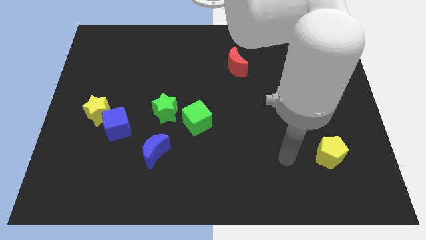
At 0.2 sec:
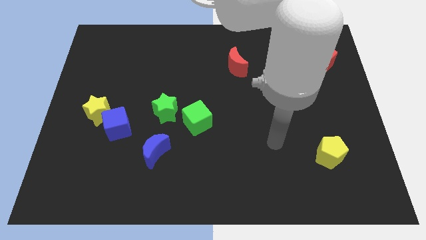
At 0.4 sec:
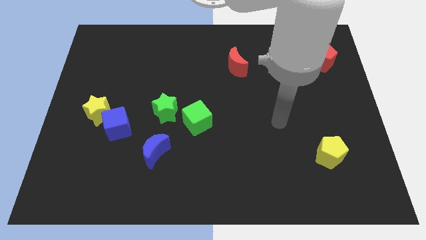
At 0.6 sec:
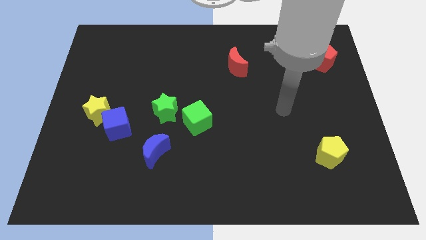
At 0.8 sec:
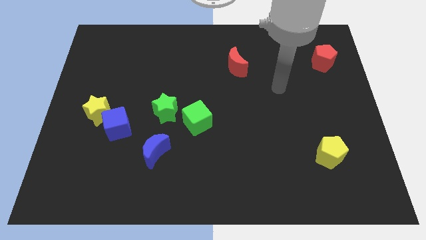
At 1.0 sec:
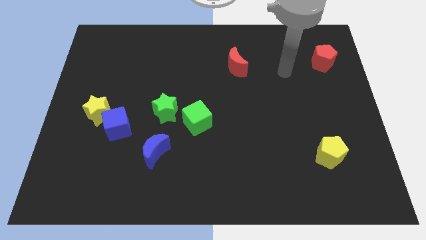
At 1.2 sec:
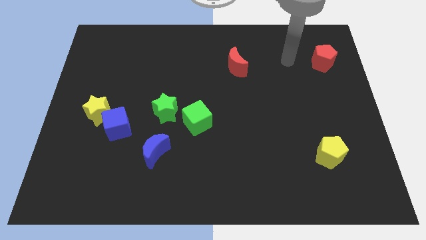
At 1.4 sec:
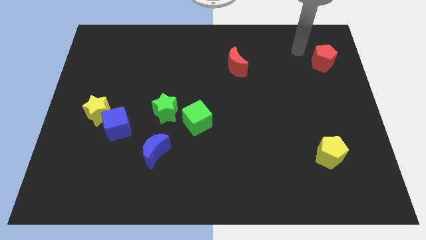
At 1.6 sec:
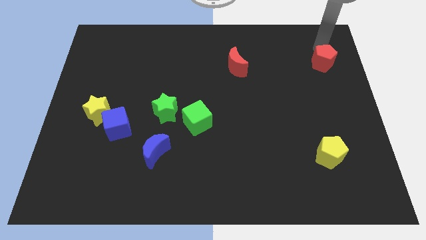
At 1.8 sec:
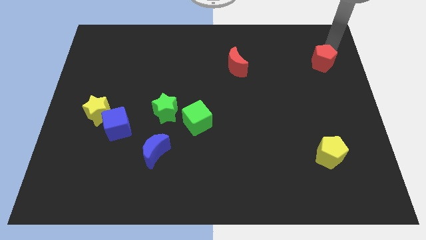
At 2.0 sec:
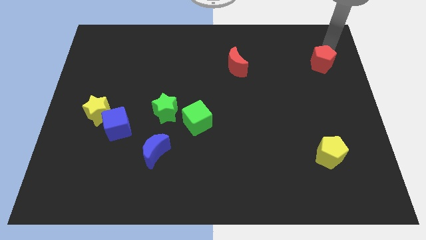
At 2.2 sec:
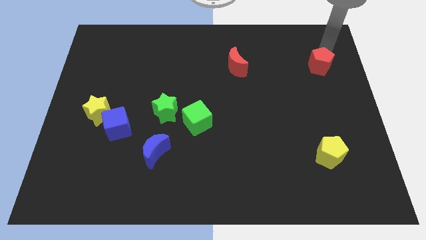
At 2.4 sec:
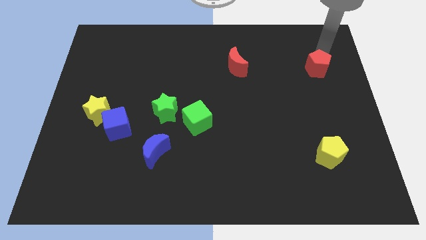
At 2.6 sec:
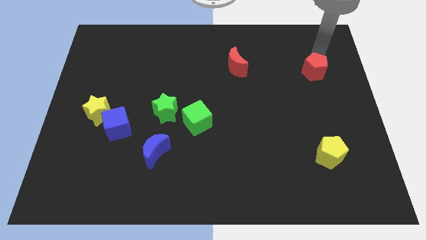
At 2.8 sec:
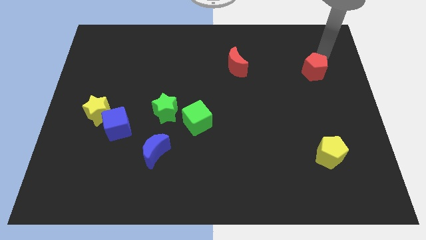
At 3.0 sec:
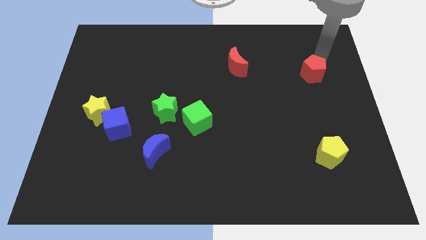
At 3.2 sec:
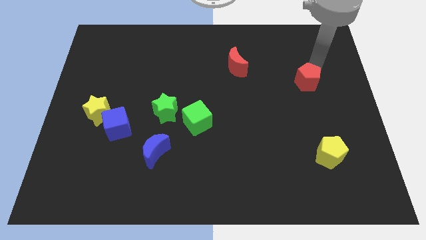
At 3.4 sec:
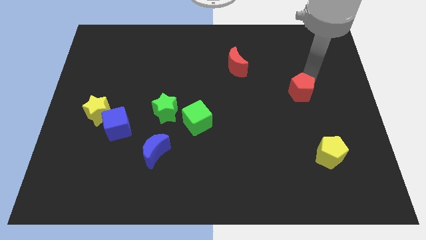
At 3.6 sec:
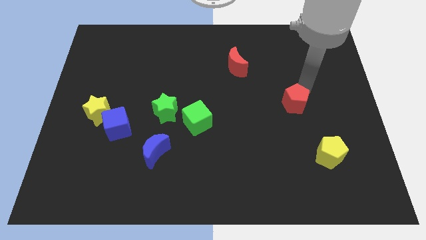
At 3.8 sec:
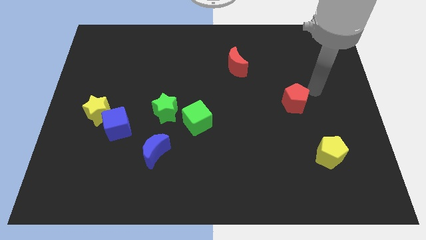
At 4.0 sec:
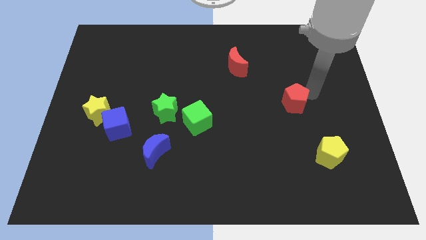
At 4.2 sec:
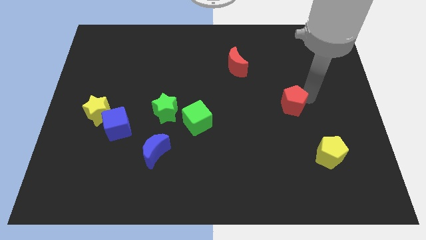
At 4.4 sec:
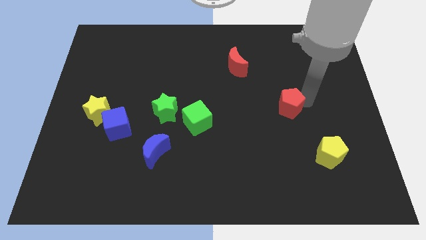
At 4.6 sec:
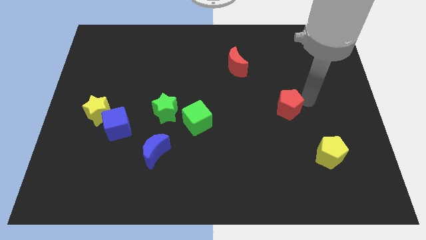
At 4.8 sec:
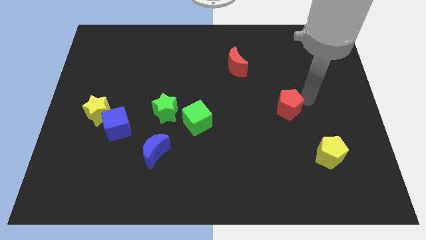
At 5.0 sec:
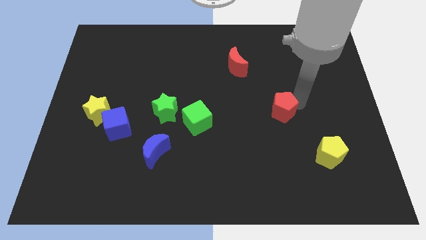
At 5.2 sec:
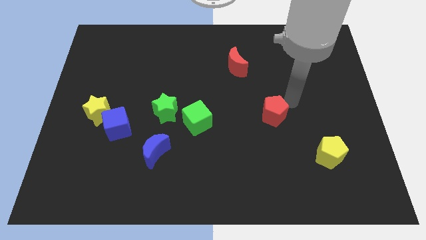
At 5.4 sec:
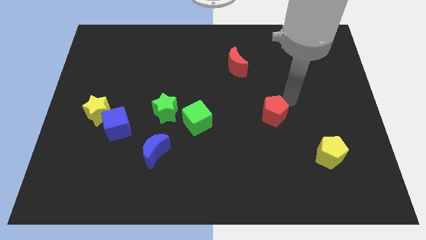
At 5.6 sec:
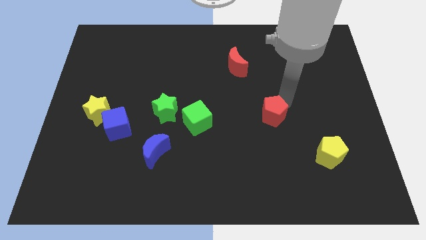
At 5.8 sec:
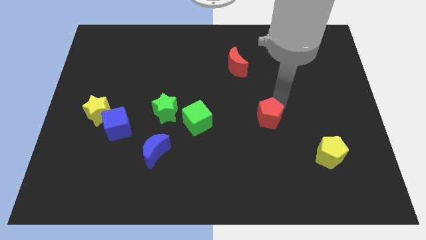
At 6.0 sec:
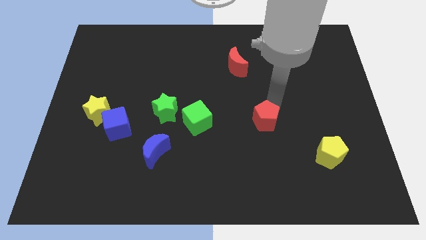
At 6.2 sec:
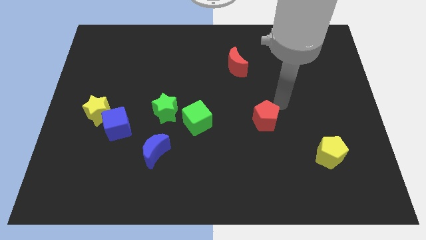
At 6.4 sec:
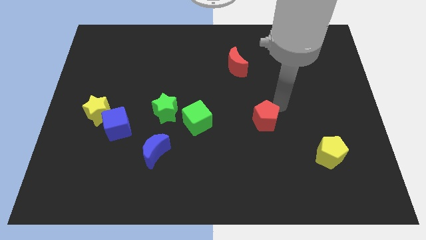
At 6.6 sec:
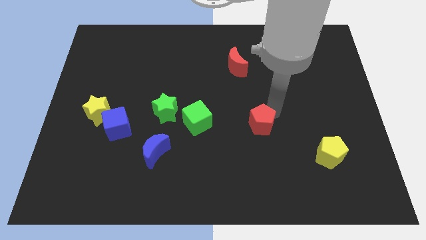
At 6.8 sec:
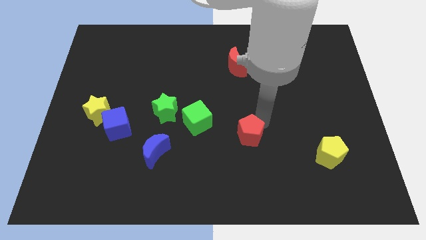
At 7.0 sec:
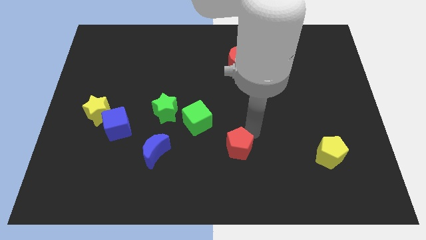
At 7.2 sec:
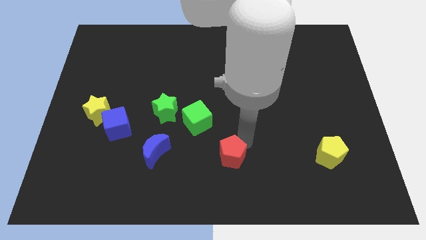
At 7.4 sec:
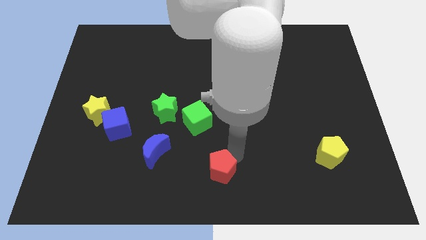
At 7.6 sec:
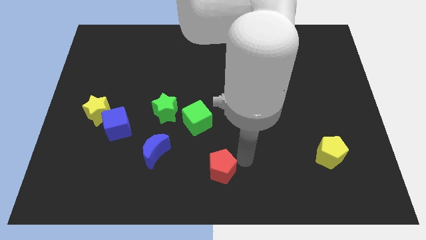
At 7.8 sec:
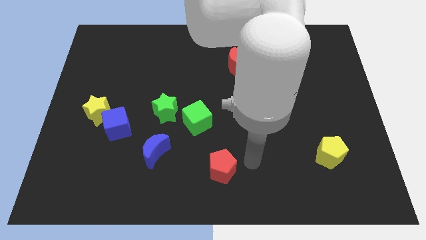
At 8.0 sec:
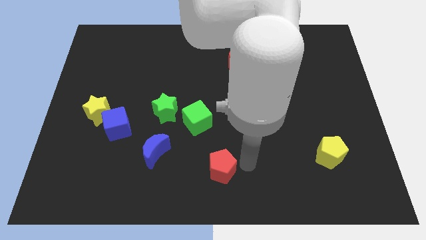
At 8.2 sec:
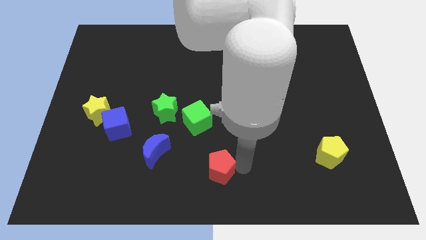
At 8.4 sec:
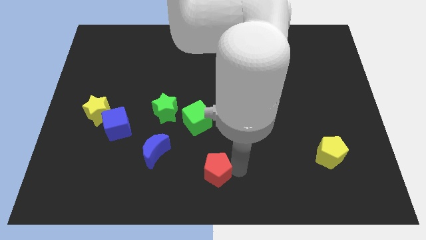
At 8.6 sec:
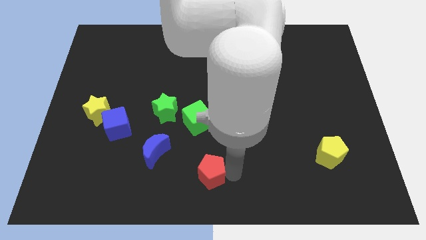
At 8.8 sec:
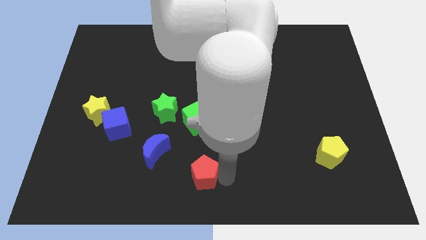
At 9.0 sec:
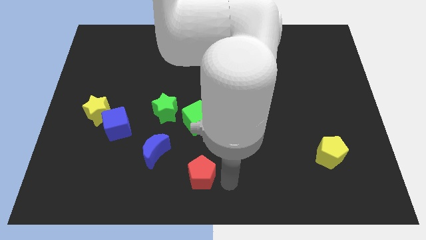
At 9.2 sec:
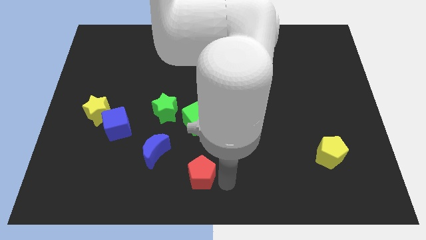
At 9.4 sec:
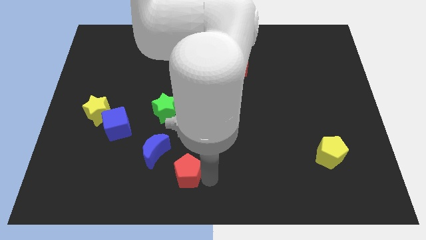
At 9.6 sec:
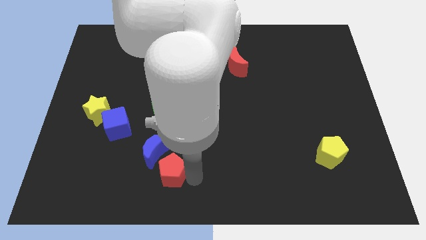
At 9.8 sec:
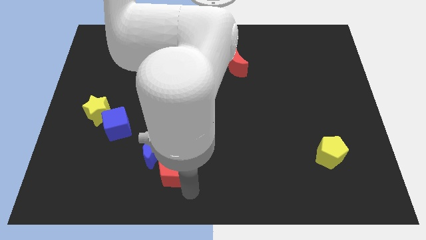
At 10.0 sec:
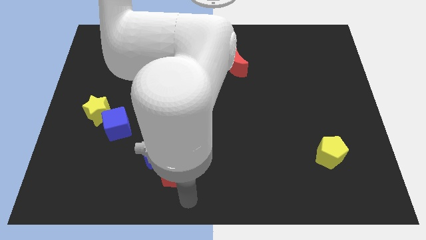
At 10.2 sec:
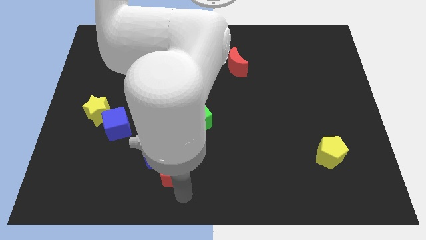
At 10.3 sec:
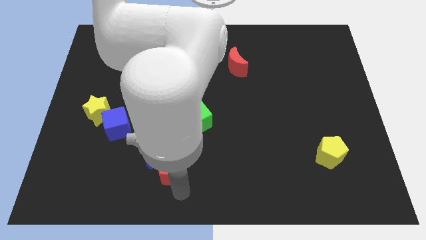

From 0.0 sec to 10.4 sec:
put the red pentagon to the bottom side of the green star

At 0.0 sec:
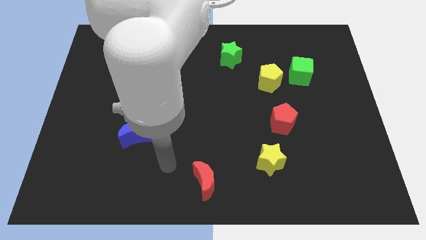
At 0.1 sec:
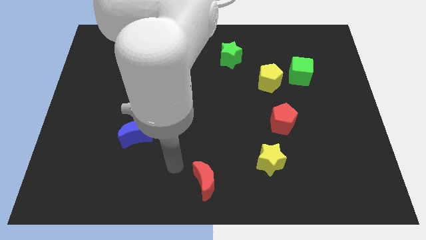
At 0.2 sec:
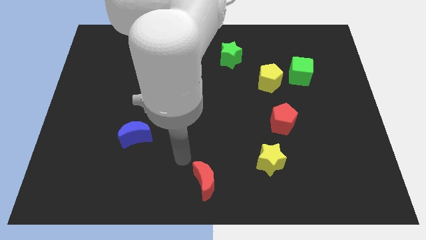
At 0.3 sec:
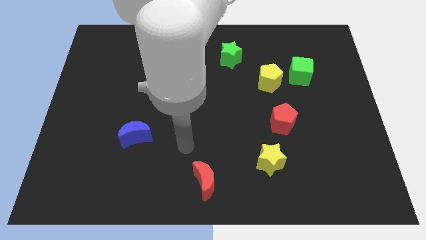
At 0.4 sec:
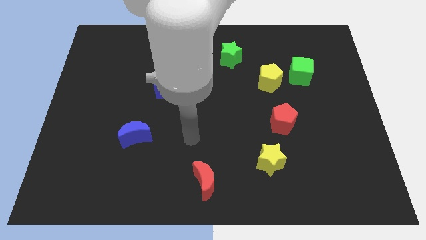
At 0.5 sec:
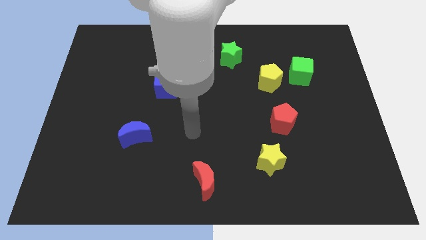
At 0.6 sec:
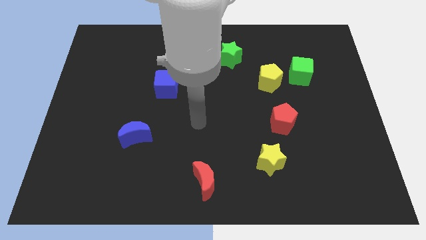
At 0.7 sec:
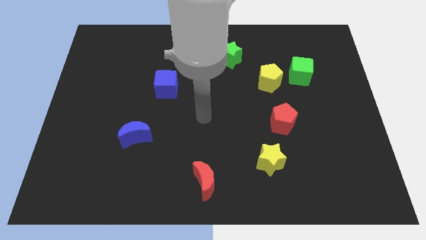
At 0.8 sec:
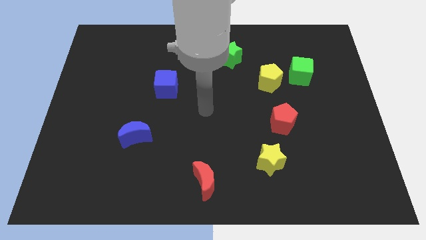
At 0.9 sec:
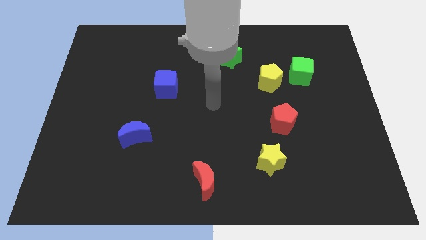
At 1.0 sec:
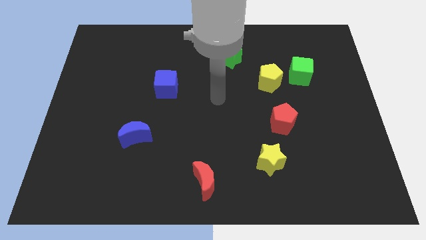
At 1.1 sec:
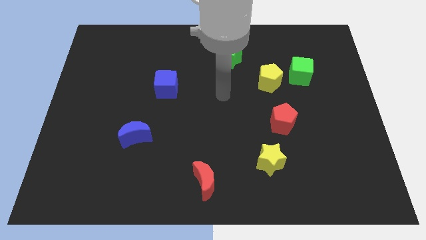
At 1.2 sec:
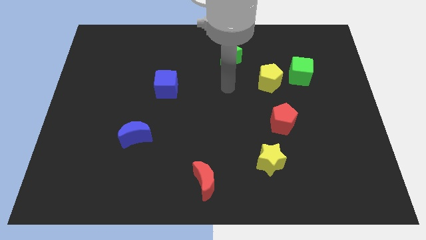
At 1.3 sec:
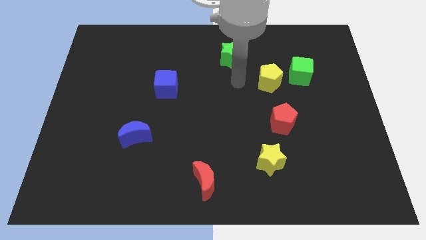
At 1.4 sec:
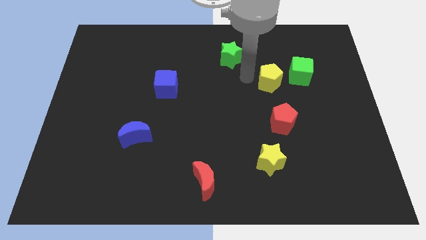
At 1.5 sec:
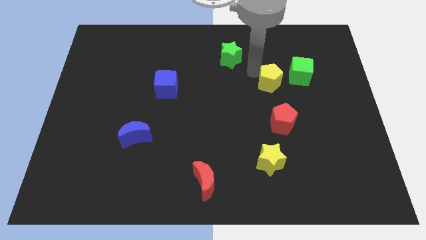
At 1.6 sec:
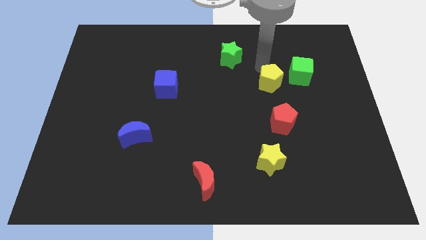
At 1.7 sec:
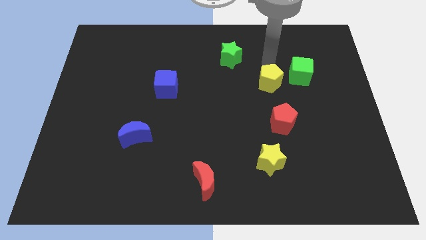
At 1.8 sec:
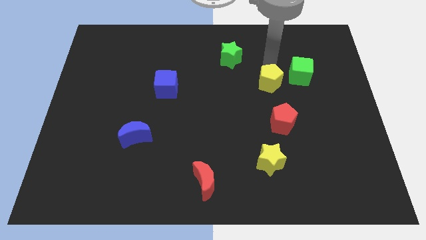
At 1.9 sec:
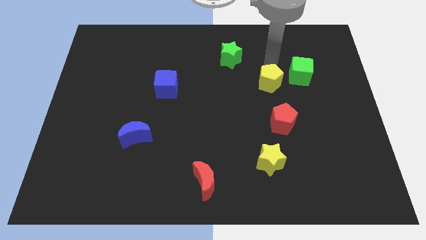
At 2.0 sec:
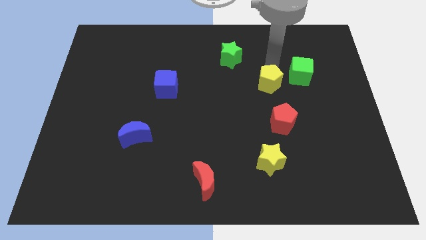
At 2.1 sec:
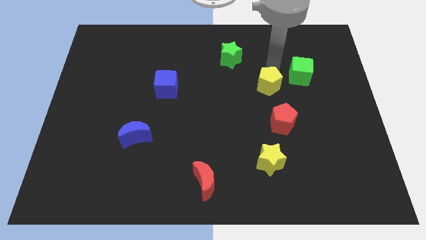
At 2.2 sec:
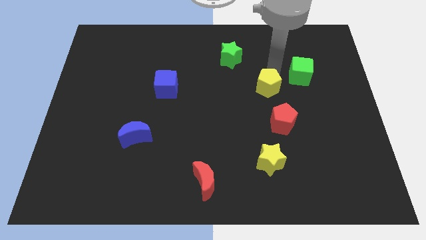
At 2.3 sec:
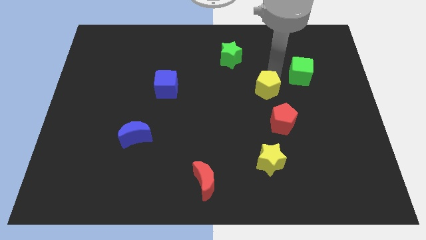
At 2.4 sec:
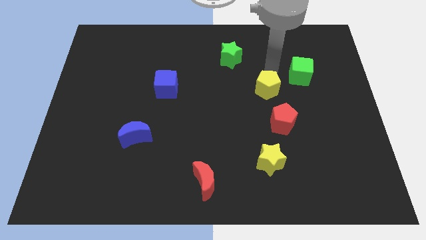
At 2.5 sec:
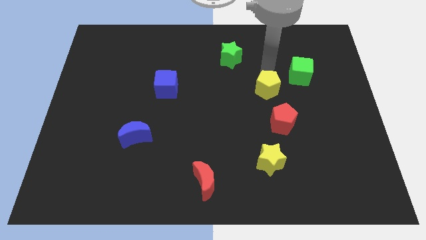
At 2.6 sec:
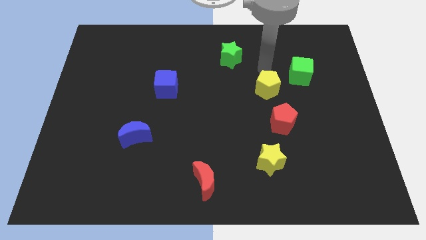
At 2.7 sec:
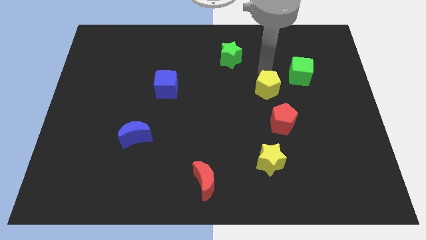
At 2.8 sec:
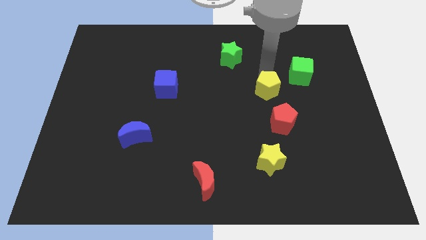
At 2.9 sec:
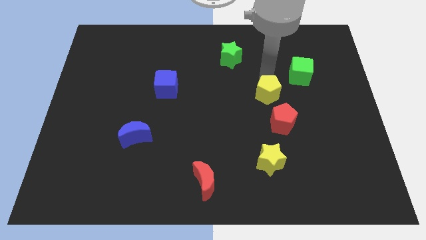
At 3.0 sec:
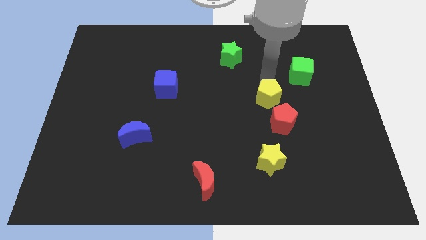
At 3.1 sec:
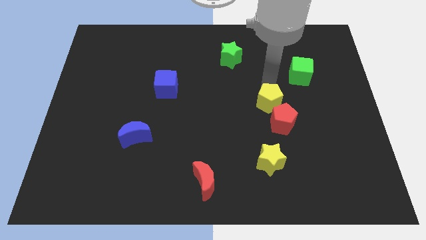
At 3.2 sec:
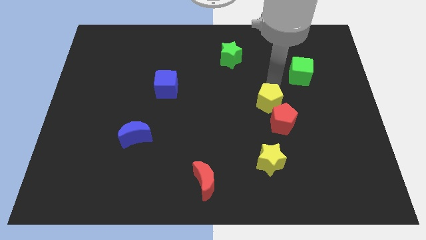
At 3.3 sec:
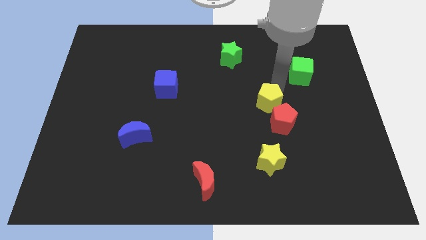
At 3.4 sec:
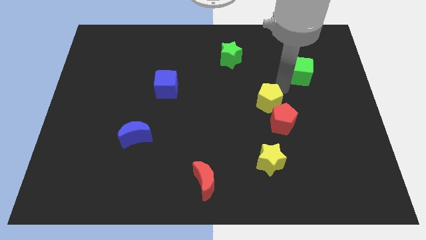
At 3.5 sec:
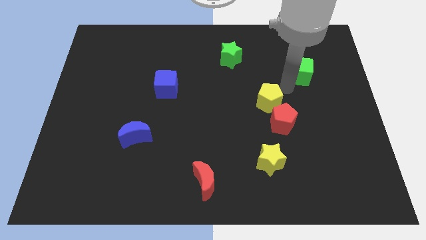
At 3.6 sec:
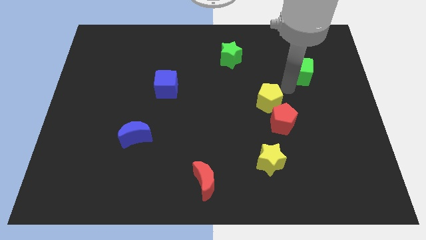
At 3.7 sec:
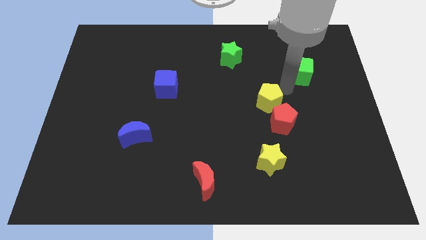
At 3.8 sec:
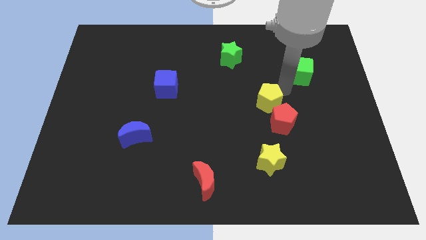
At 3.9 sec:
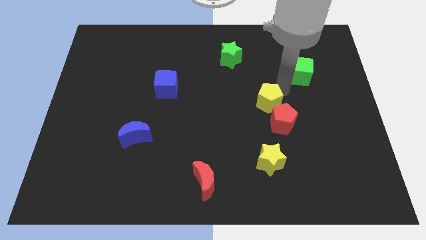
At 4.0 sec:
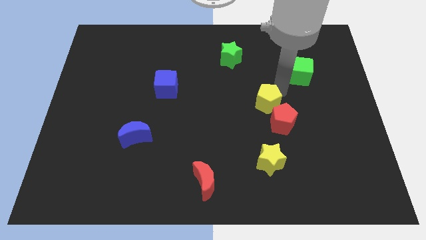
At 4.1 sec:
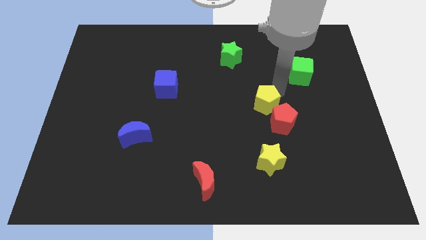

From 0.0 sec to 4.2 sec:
slide the yellow pentagon to the top of the yellow star
